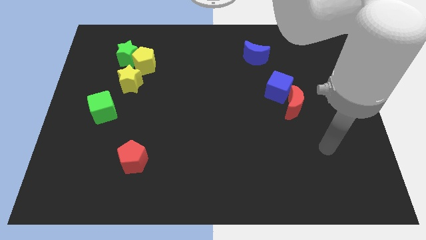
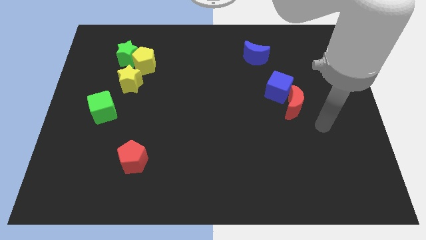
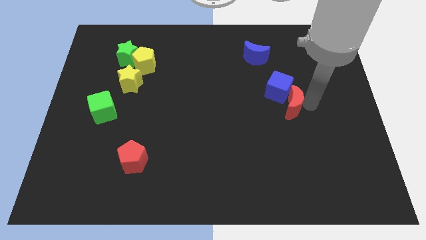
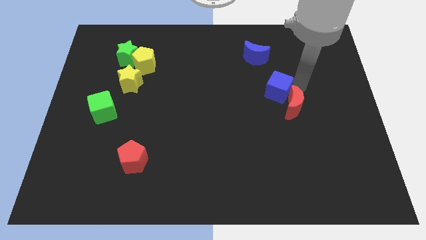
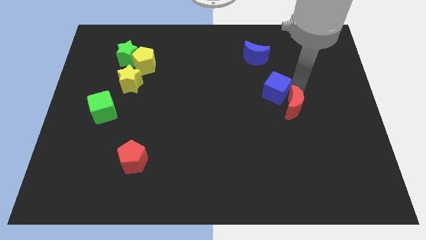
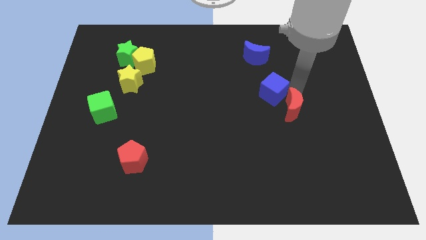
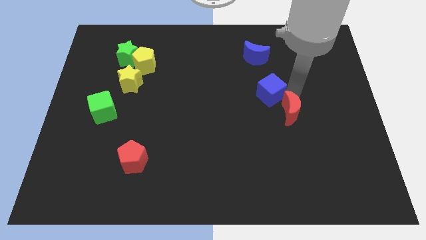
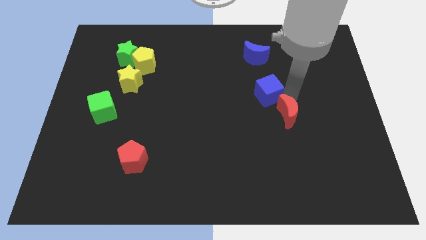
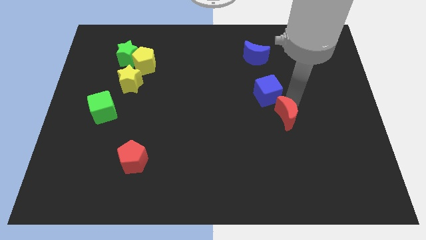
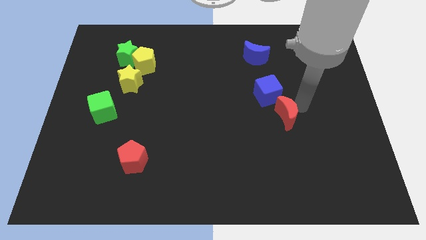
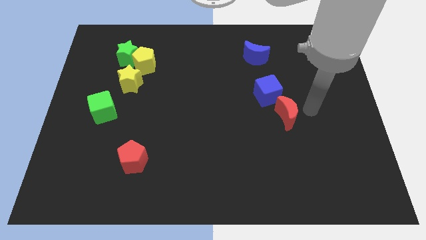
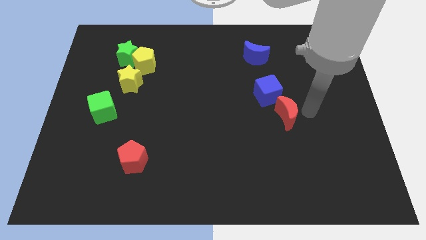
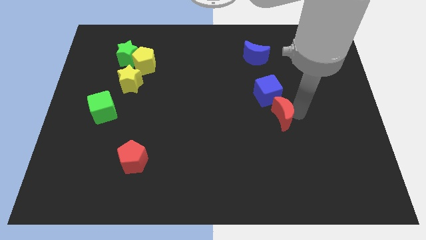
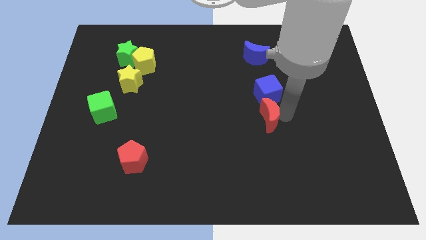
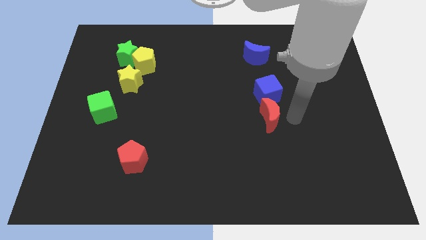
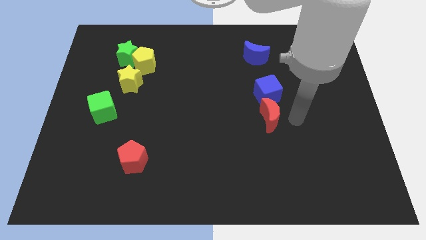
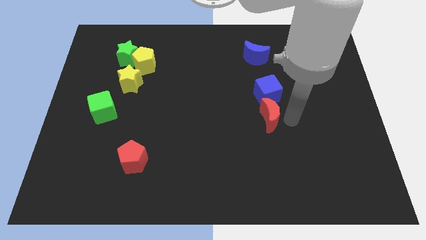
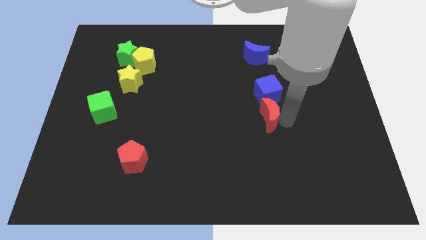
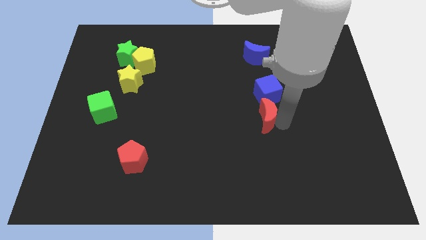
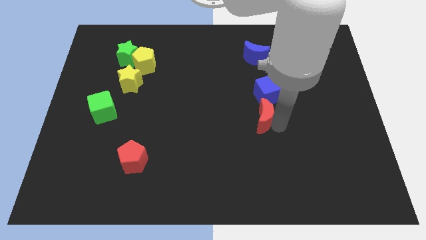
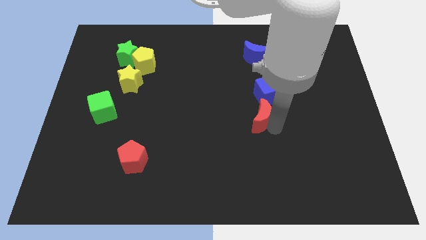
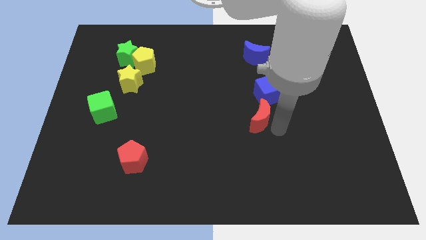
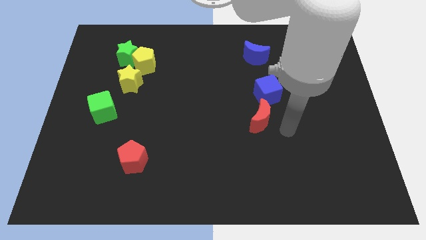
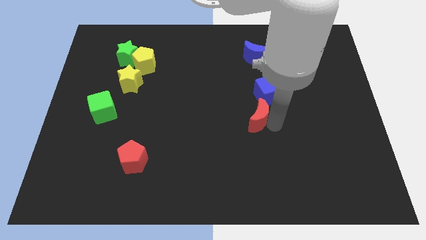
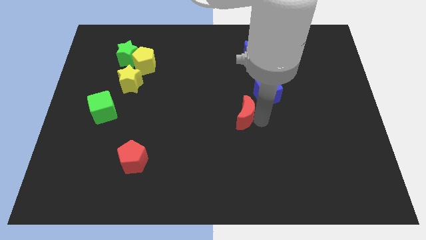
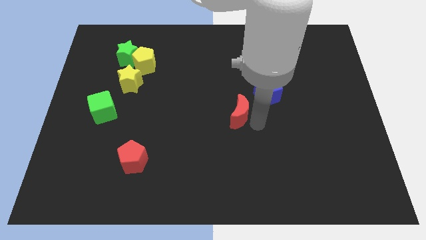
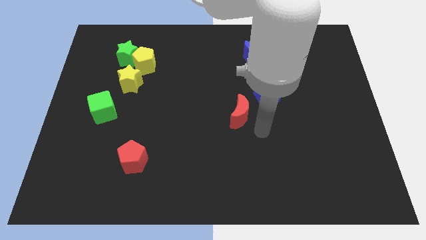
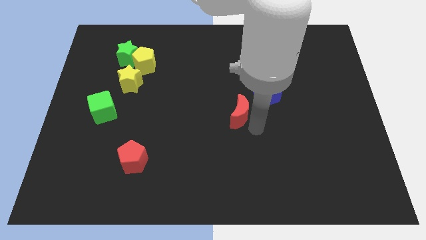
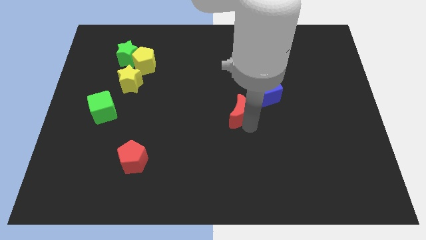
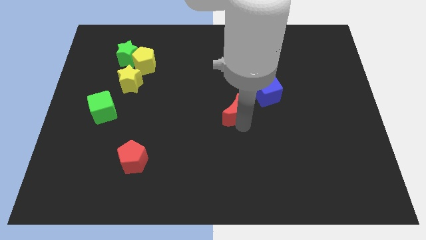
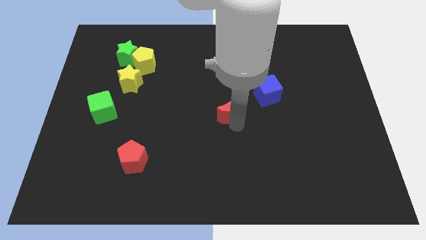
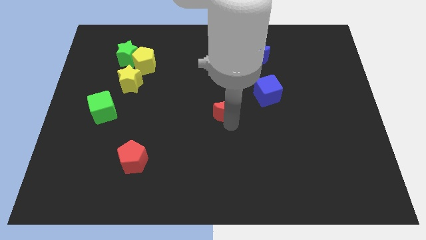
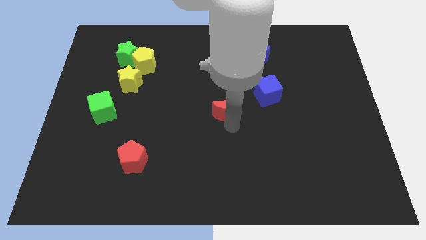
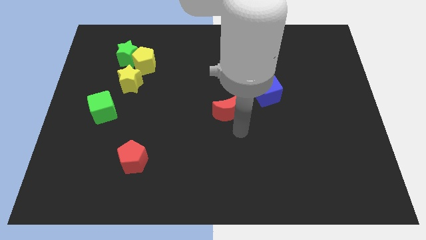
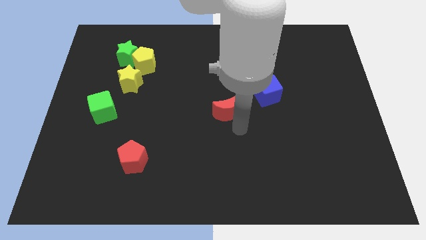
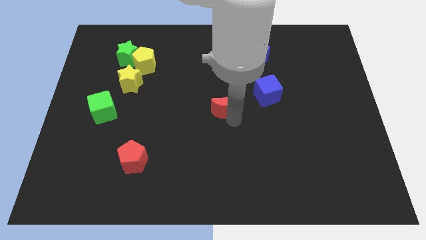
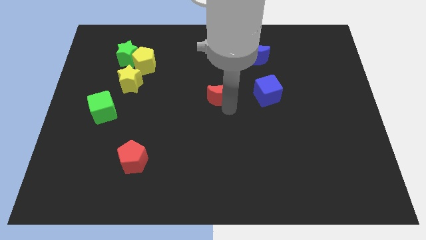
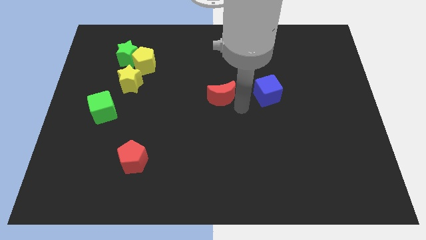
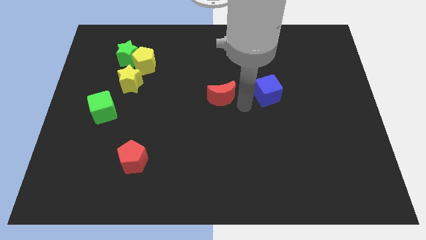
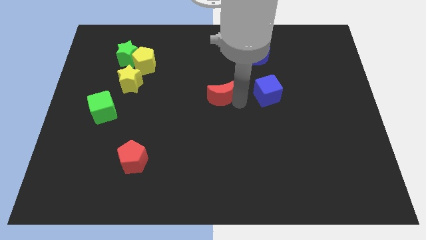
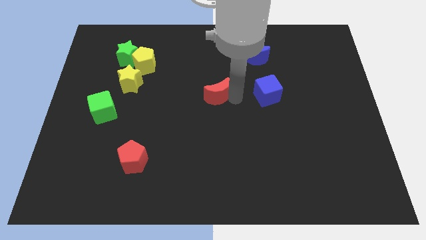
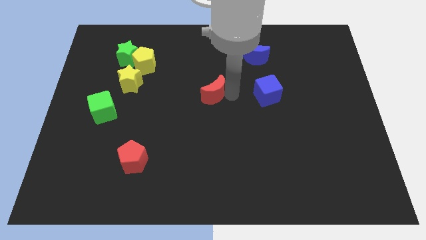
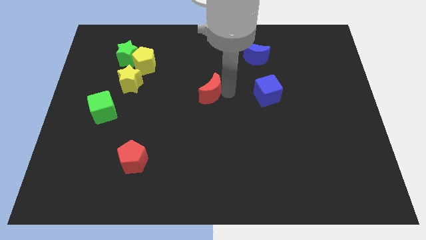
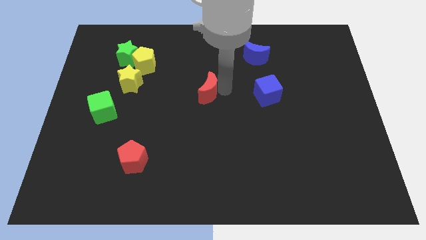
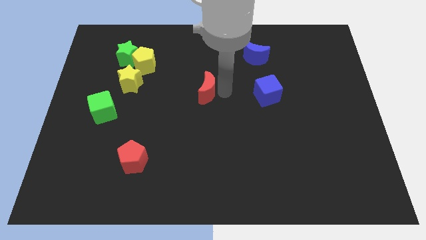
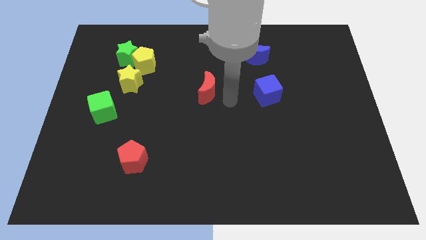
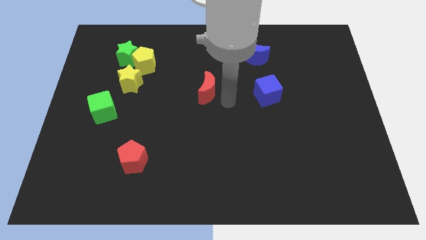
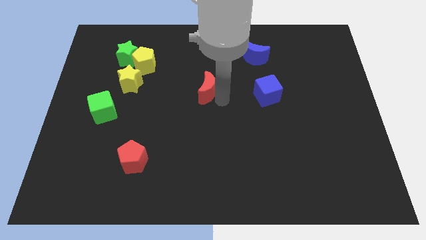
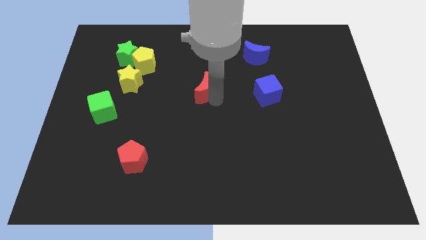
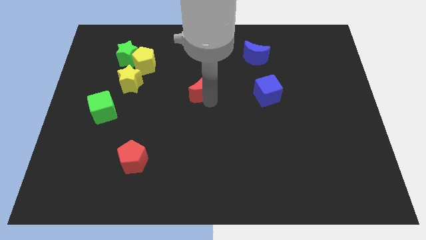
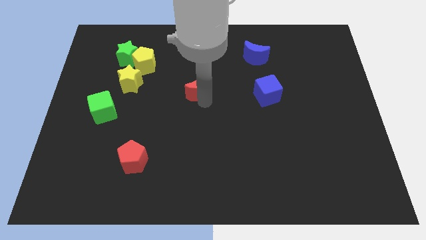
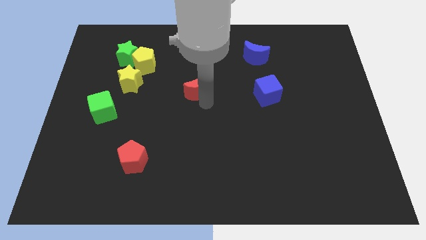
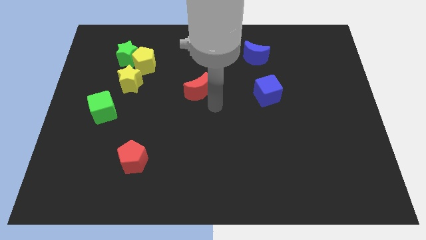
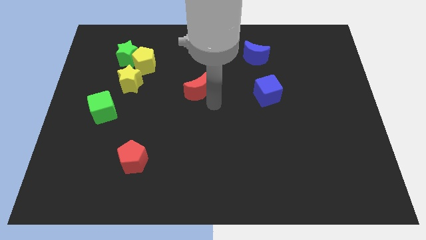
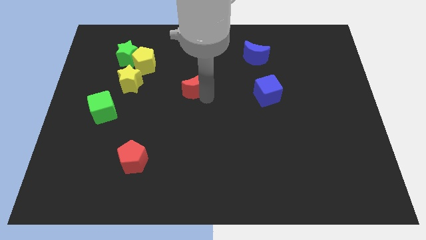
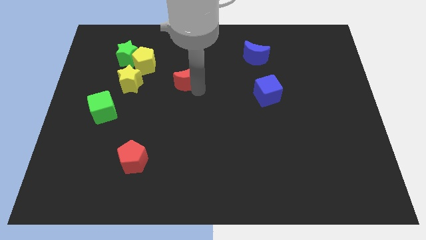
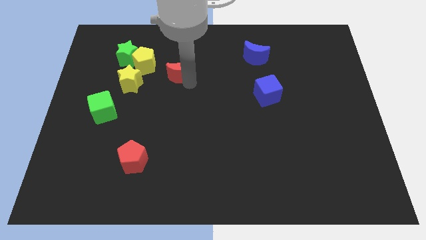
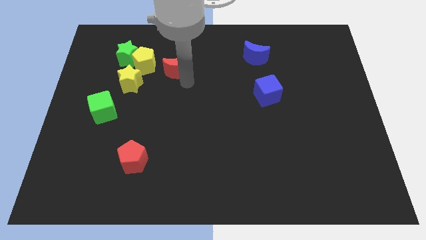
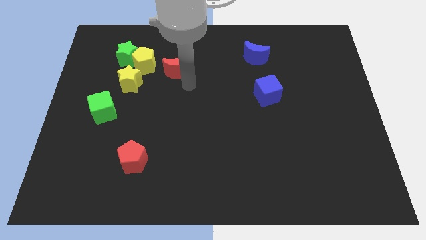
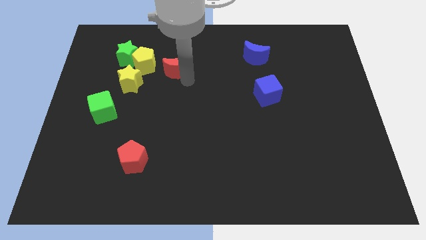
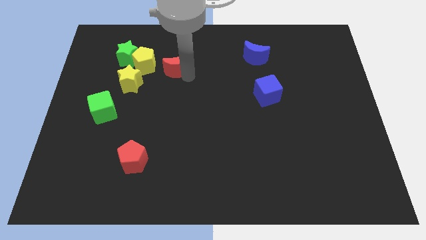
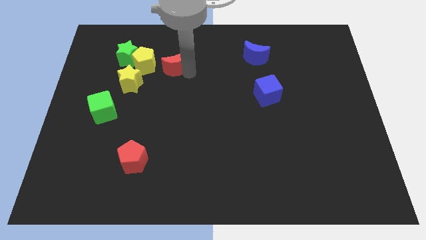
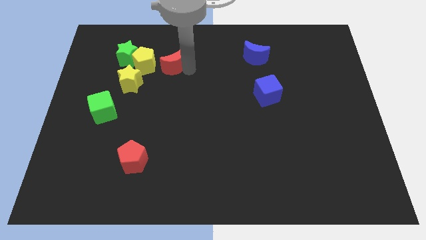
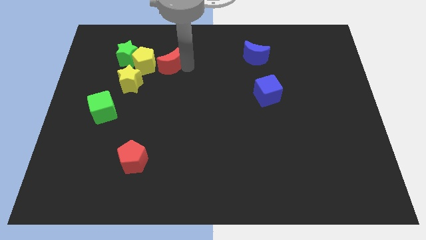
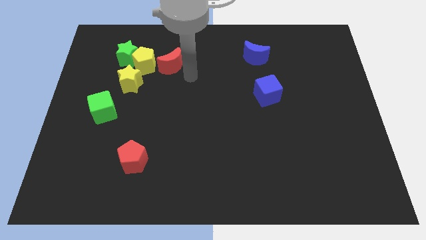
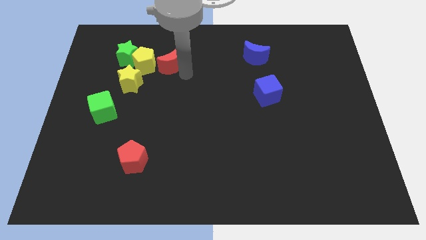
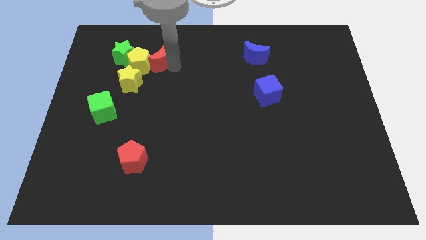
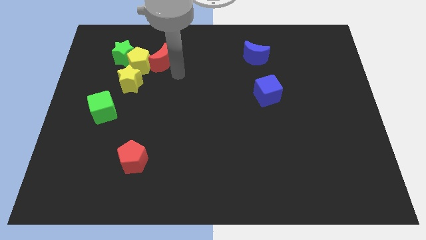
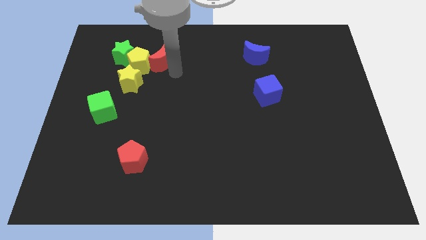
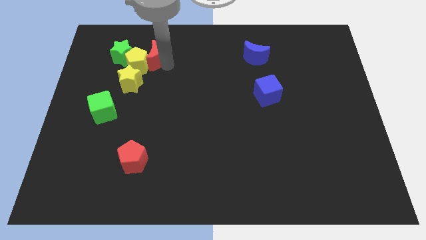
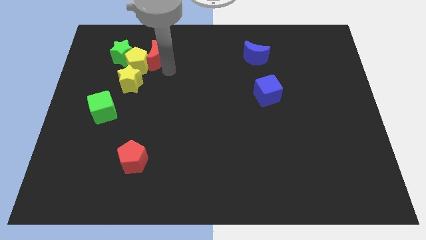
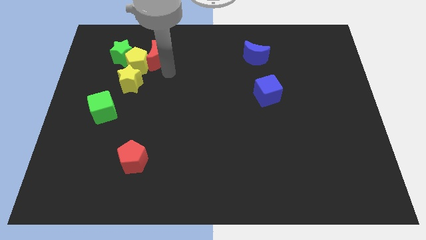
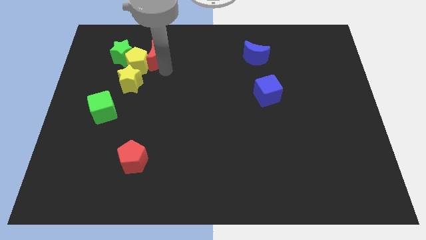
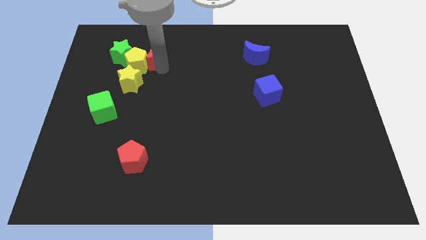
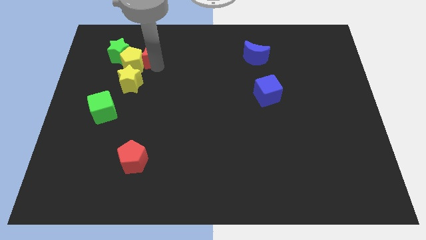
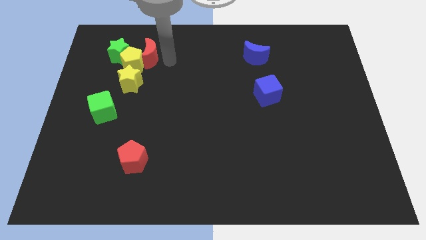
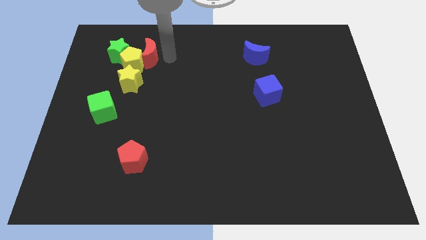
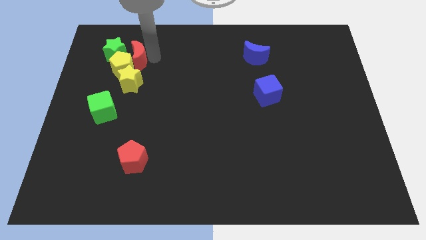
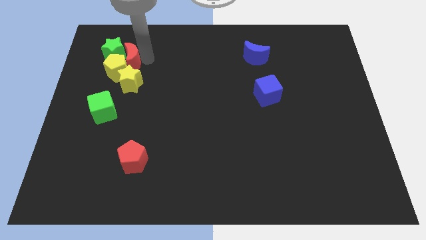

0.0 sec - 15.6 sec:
put the red moon towards the green star
